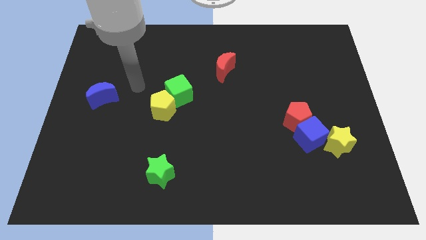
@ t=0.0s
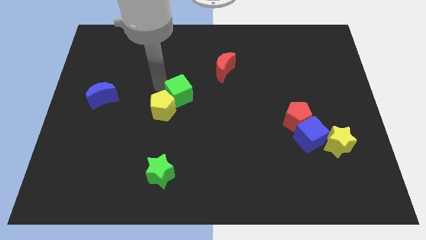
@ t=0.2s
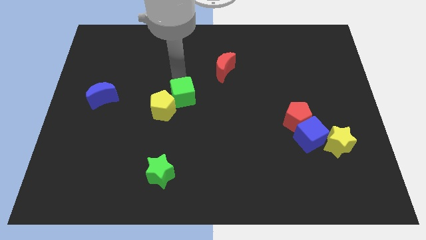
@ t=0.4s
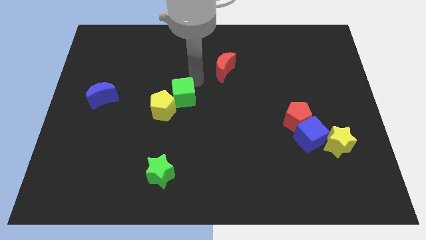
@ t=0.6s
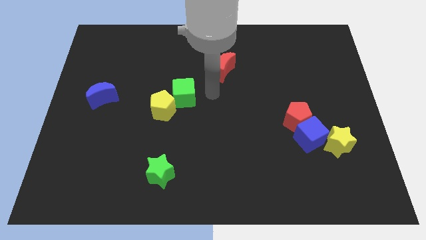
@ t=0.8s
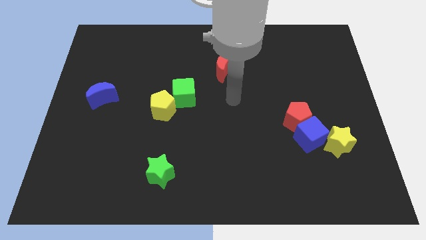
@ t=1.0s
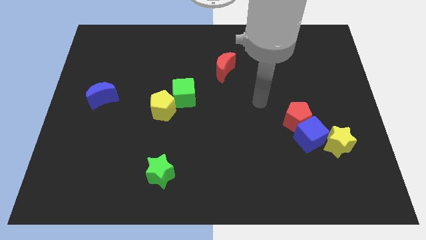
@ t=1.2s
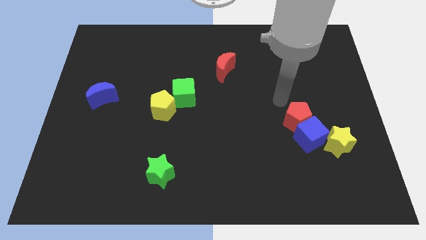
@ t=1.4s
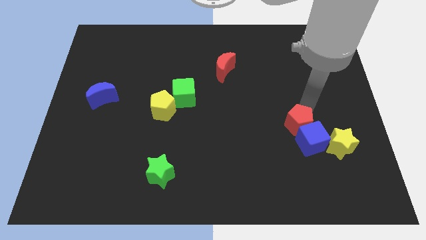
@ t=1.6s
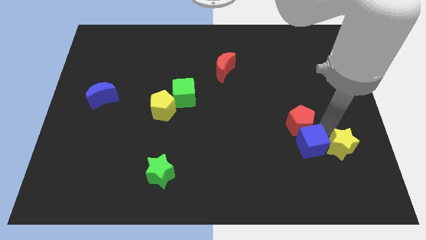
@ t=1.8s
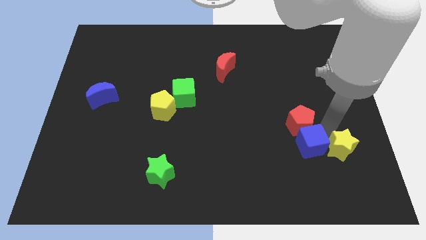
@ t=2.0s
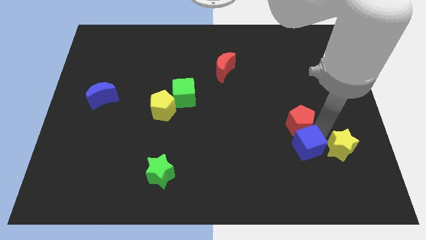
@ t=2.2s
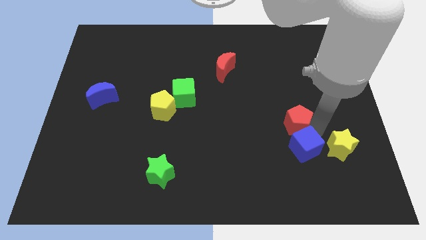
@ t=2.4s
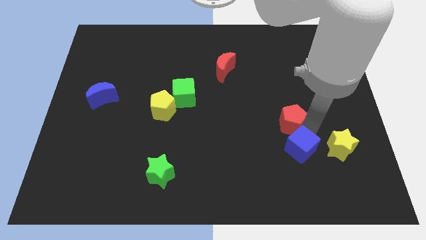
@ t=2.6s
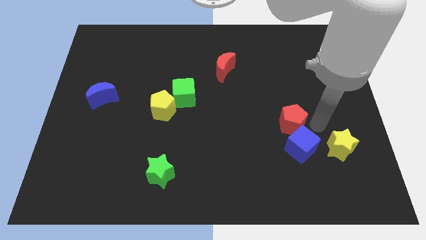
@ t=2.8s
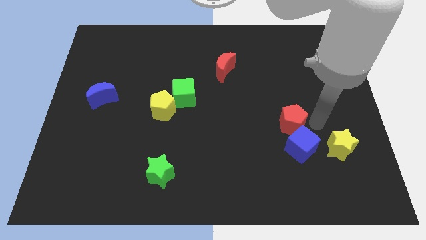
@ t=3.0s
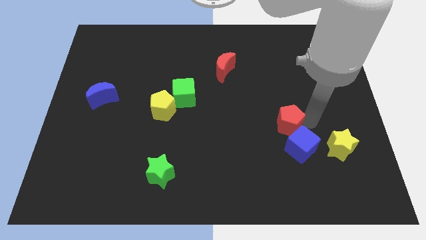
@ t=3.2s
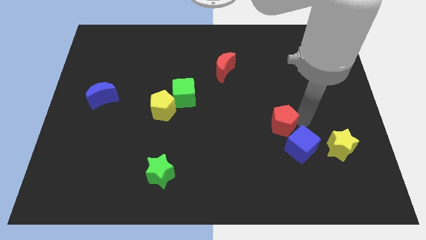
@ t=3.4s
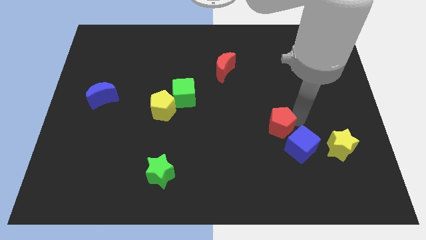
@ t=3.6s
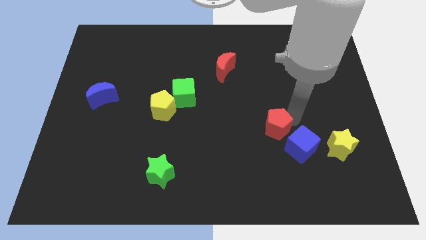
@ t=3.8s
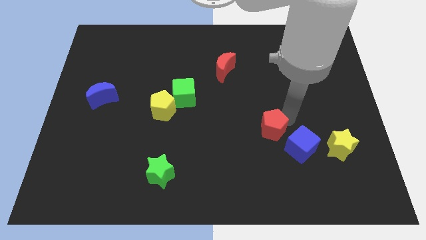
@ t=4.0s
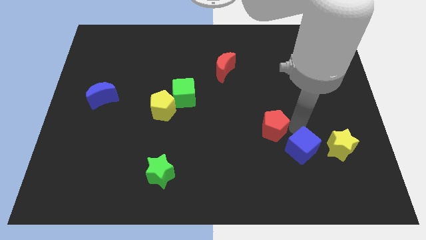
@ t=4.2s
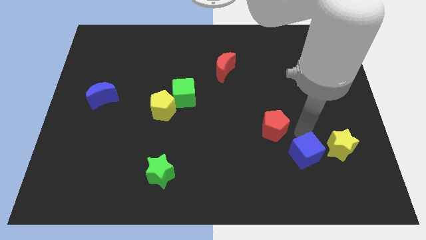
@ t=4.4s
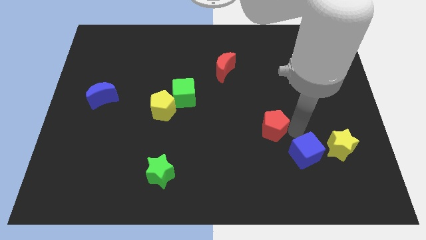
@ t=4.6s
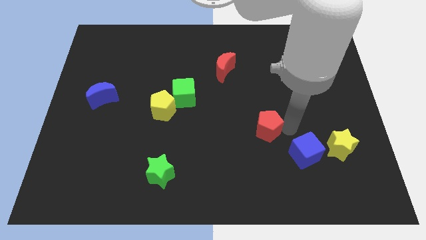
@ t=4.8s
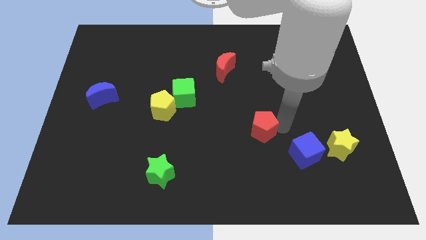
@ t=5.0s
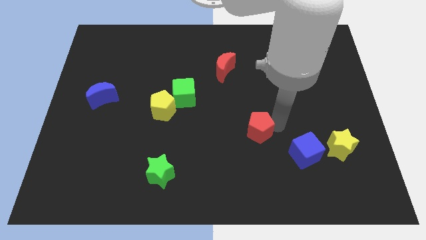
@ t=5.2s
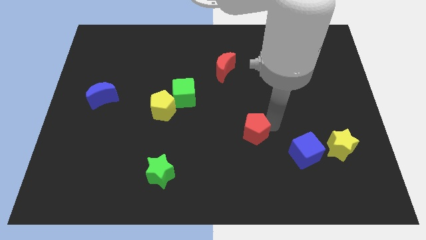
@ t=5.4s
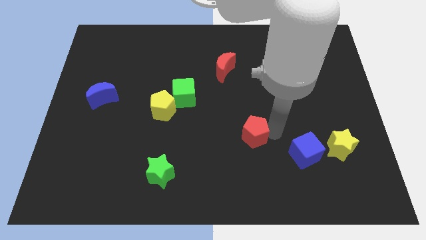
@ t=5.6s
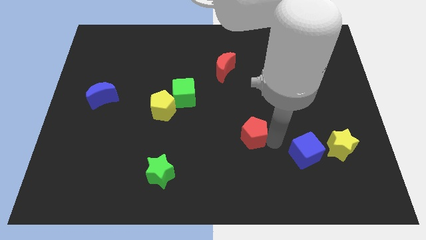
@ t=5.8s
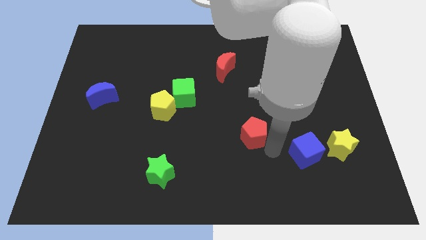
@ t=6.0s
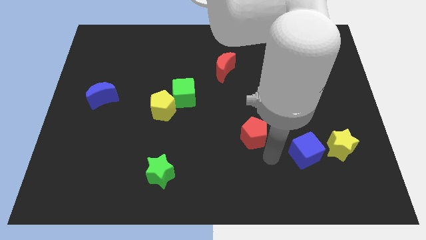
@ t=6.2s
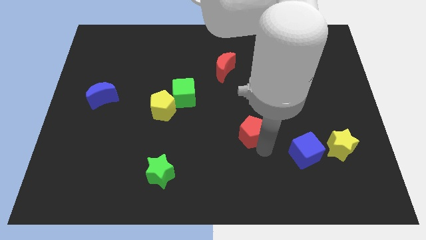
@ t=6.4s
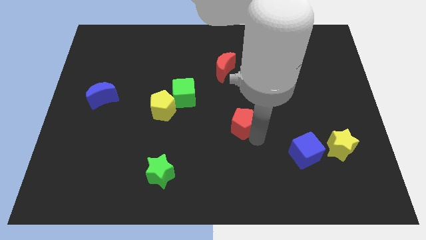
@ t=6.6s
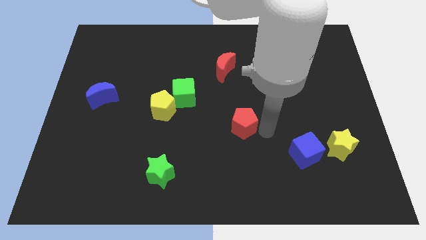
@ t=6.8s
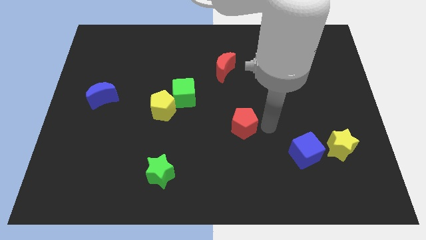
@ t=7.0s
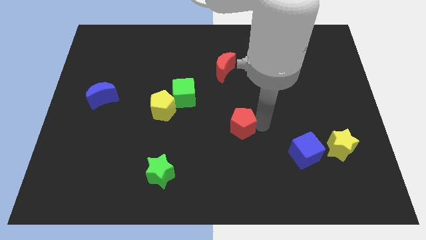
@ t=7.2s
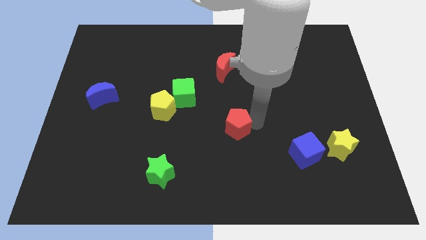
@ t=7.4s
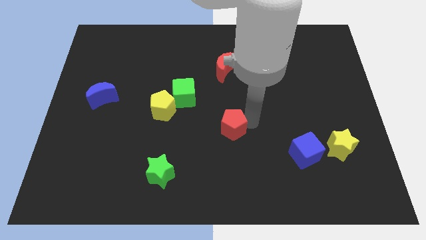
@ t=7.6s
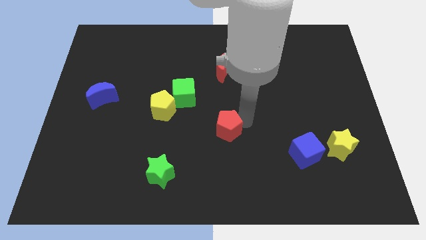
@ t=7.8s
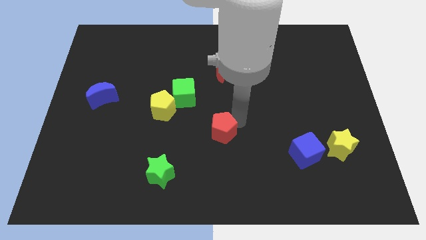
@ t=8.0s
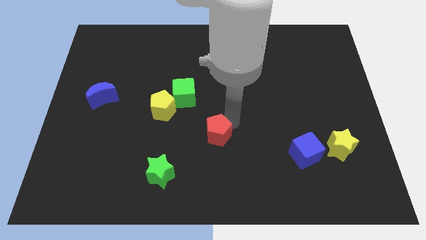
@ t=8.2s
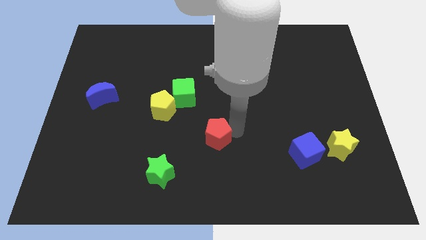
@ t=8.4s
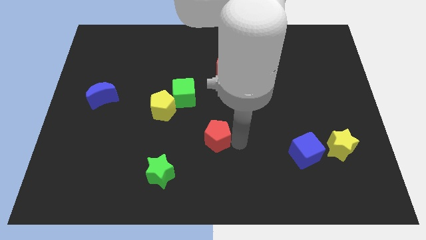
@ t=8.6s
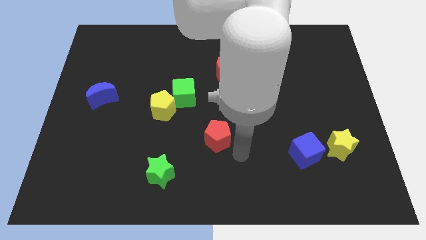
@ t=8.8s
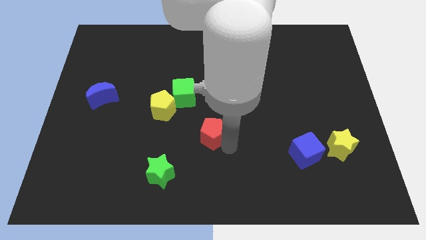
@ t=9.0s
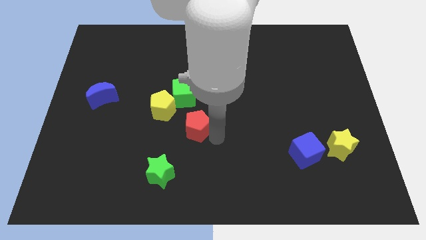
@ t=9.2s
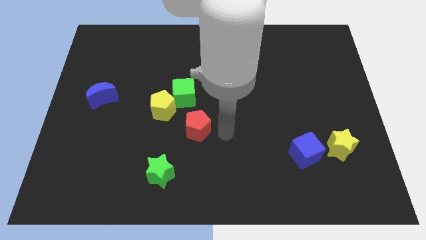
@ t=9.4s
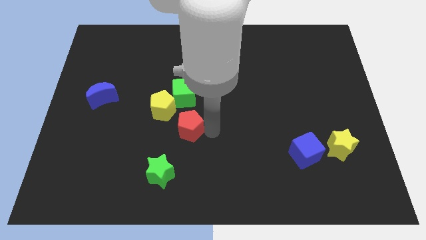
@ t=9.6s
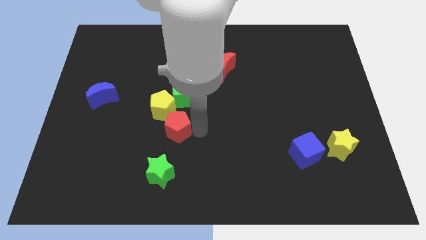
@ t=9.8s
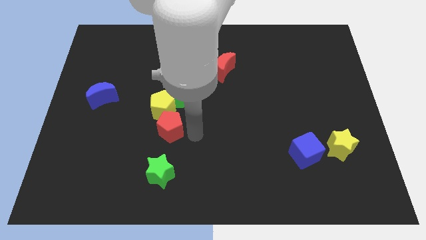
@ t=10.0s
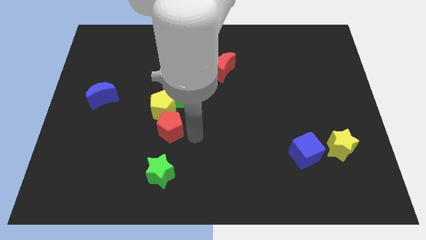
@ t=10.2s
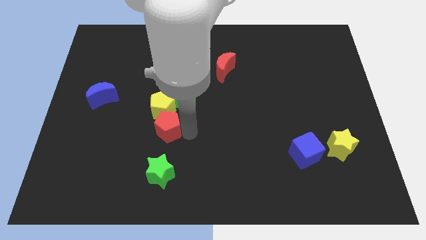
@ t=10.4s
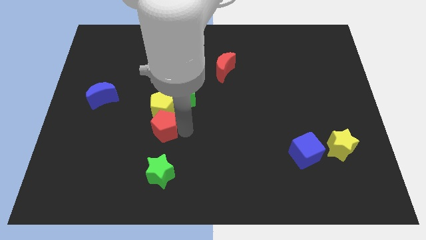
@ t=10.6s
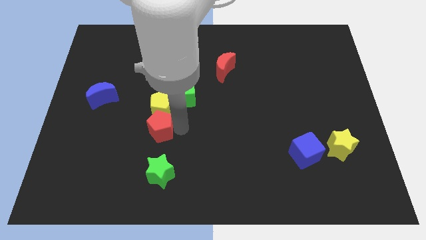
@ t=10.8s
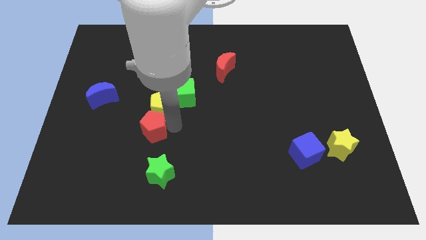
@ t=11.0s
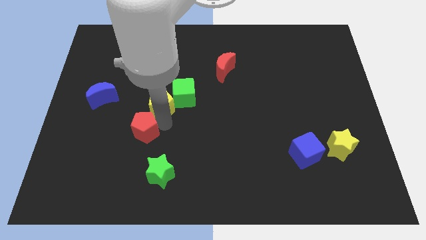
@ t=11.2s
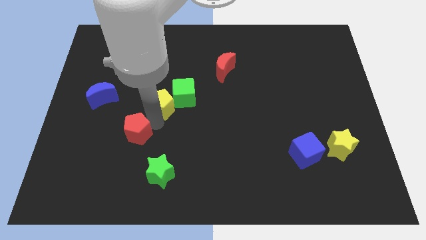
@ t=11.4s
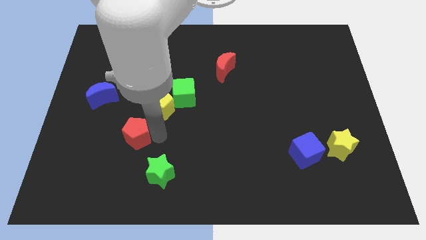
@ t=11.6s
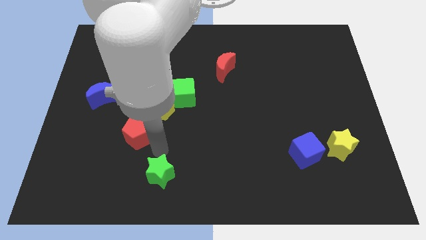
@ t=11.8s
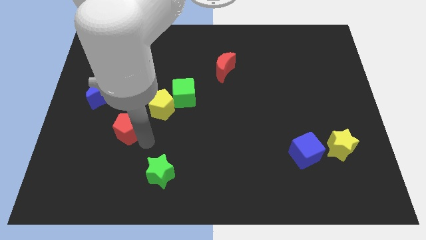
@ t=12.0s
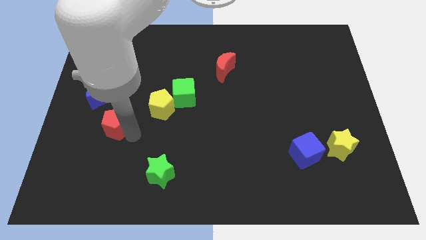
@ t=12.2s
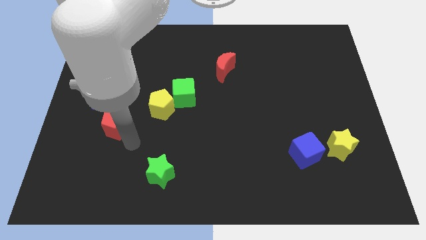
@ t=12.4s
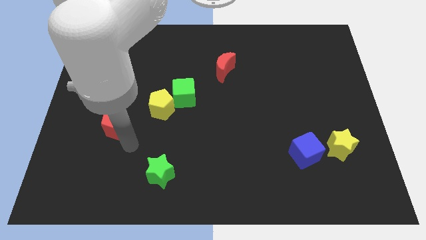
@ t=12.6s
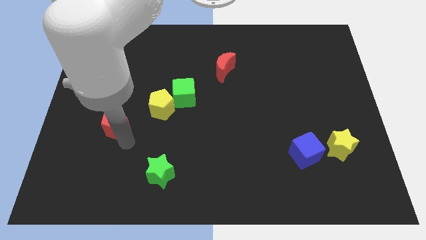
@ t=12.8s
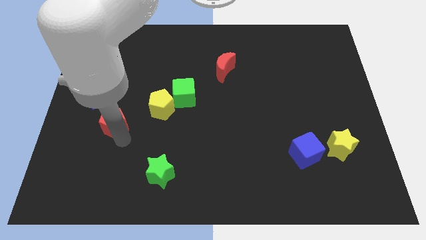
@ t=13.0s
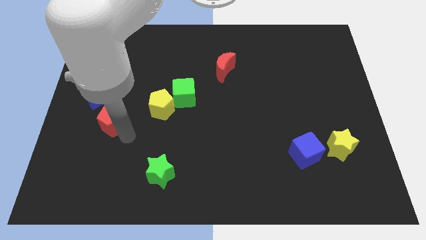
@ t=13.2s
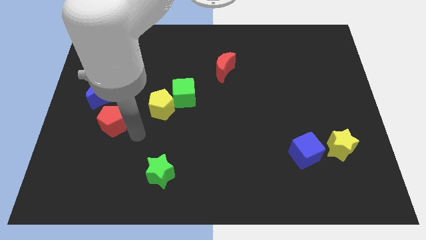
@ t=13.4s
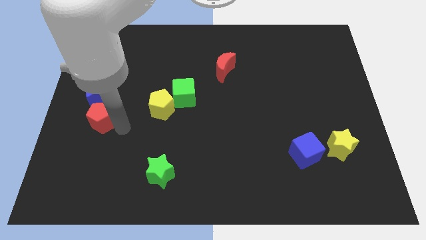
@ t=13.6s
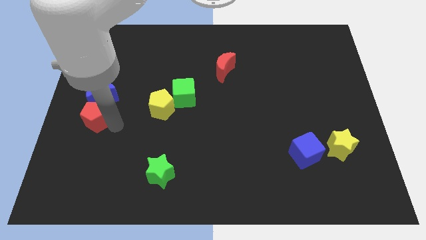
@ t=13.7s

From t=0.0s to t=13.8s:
slide the red pentagon to the left side of the board
